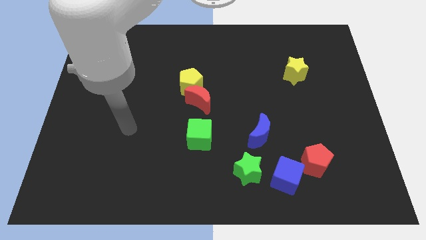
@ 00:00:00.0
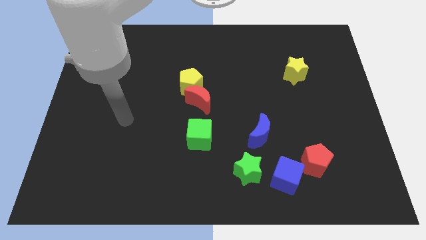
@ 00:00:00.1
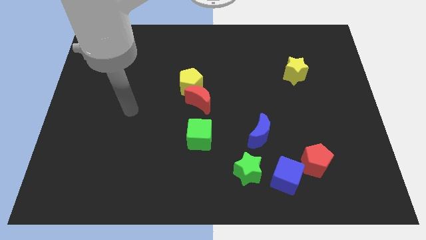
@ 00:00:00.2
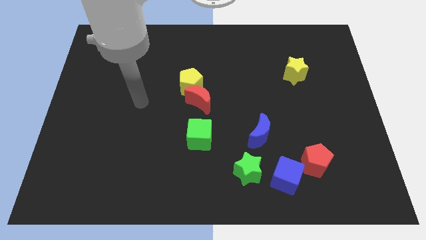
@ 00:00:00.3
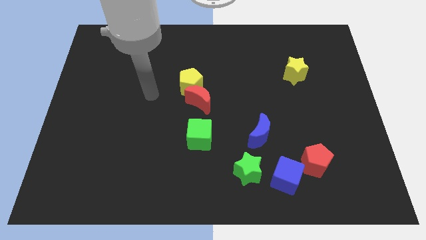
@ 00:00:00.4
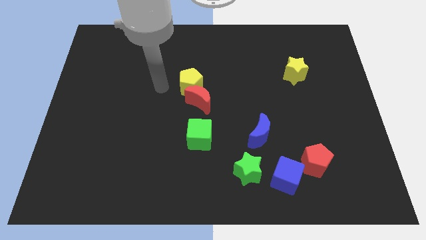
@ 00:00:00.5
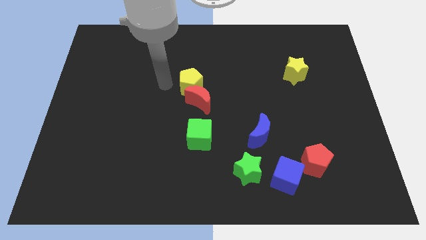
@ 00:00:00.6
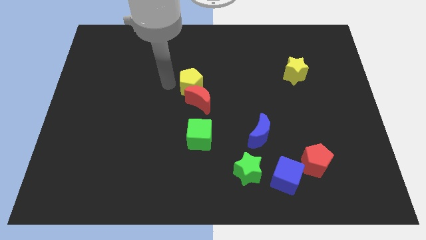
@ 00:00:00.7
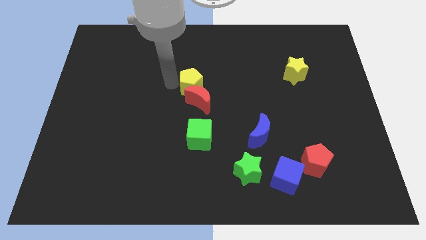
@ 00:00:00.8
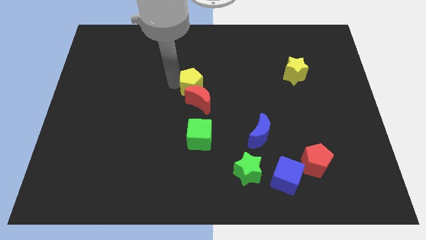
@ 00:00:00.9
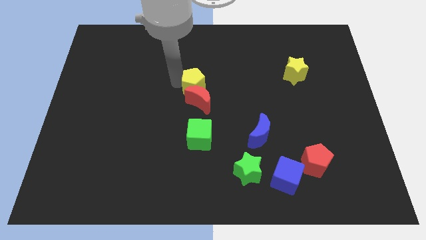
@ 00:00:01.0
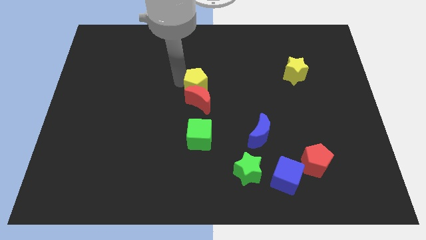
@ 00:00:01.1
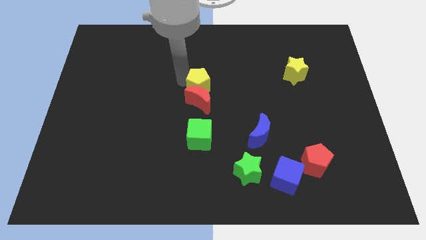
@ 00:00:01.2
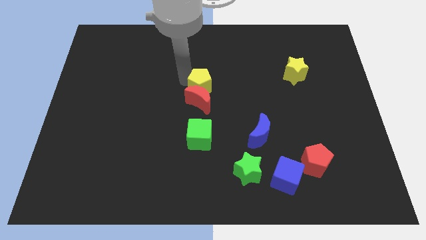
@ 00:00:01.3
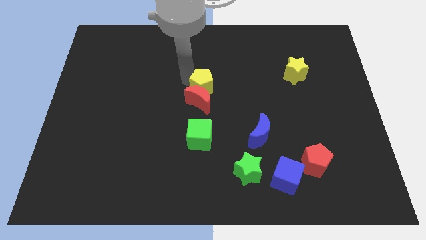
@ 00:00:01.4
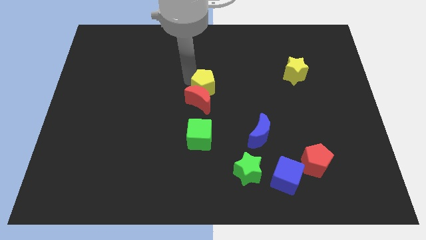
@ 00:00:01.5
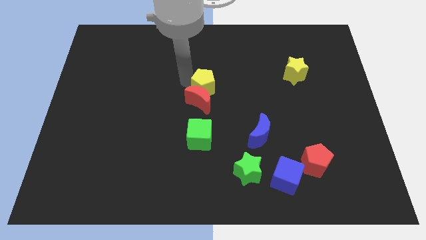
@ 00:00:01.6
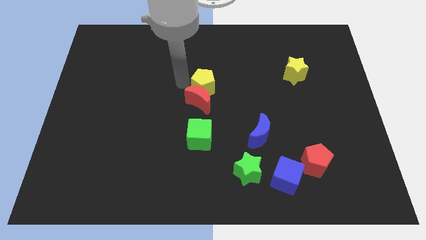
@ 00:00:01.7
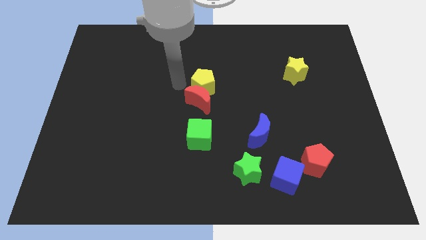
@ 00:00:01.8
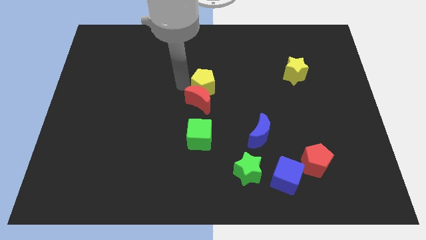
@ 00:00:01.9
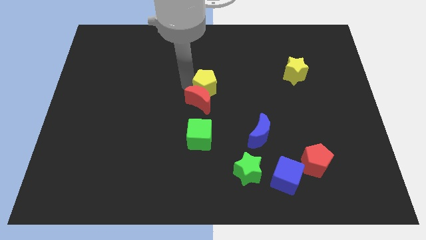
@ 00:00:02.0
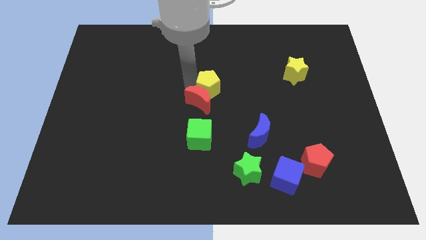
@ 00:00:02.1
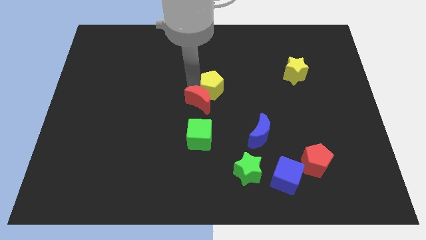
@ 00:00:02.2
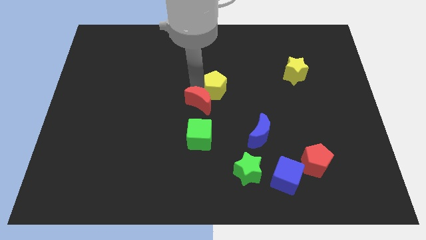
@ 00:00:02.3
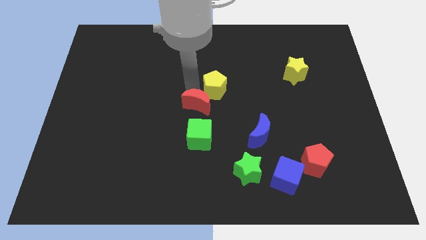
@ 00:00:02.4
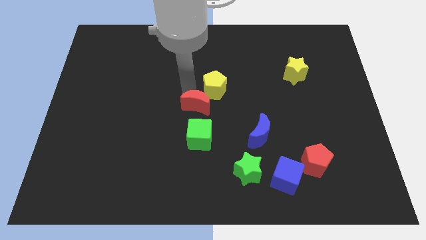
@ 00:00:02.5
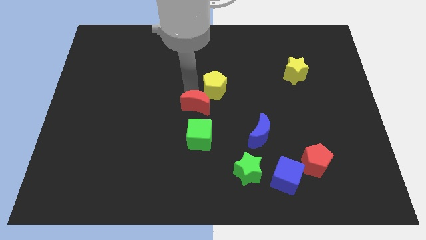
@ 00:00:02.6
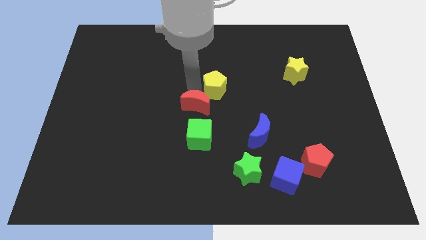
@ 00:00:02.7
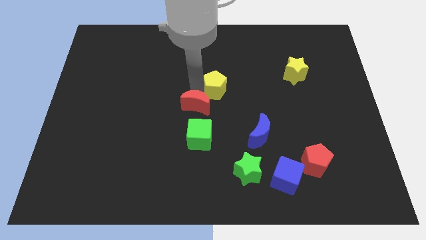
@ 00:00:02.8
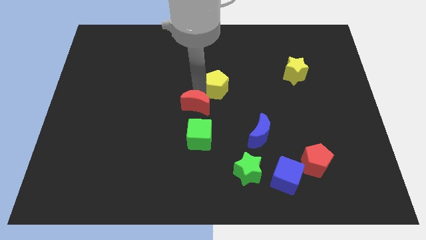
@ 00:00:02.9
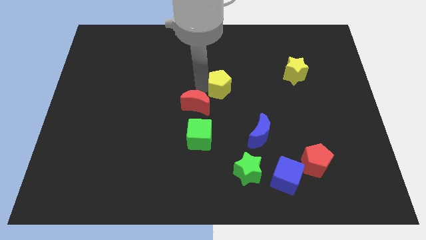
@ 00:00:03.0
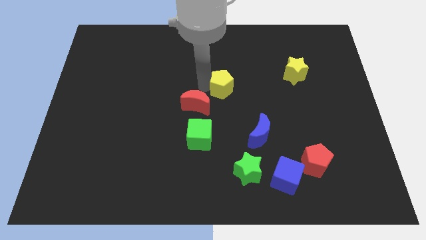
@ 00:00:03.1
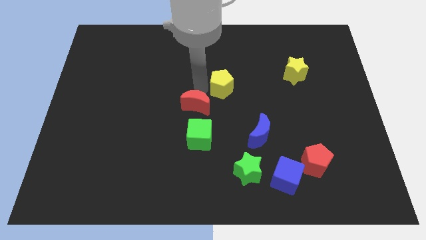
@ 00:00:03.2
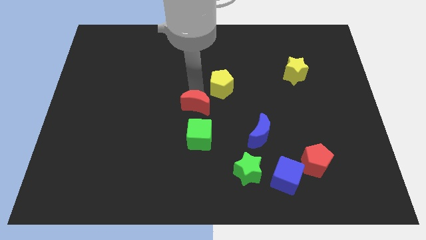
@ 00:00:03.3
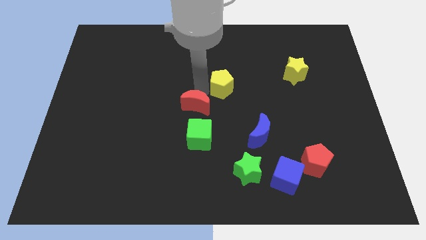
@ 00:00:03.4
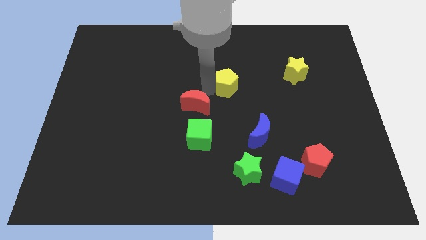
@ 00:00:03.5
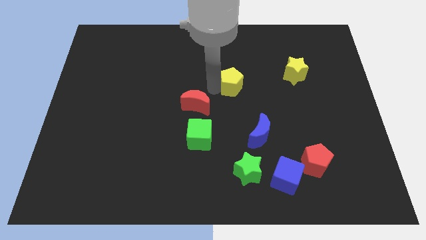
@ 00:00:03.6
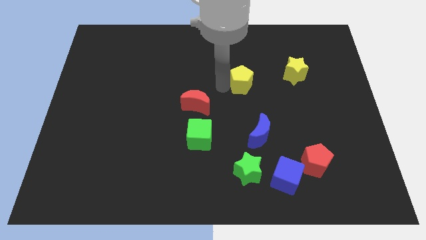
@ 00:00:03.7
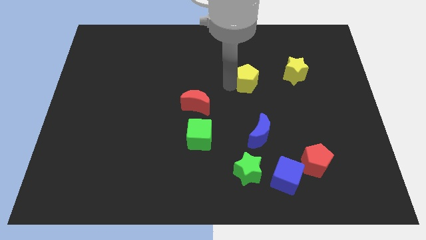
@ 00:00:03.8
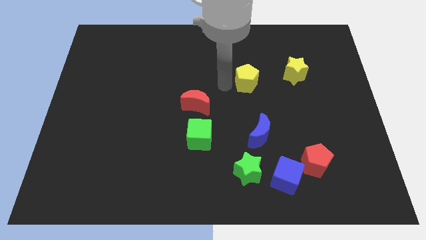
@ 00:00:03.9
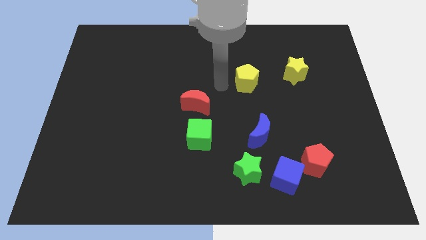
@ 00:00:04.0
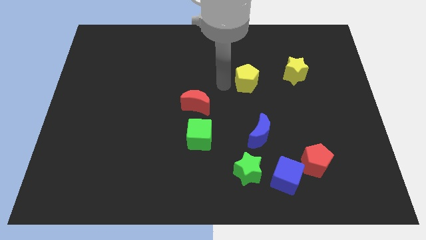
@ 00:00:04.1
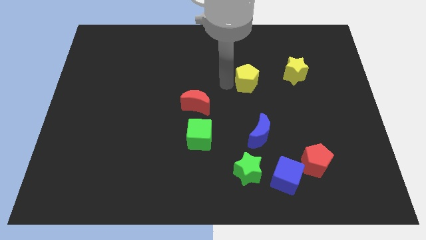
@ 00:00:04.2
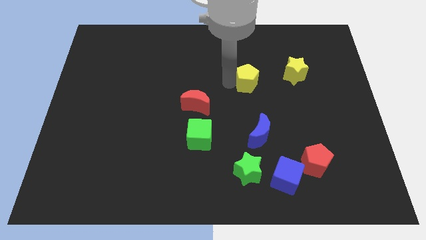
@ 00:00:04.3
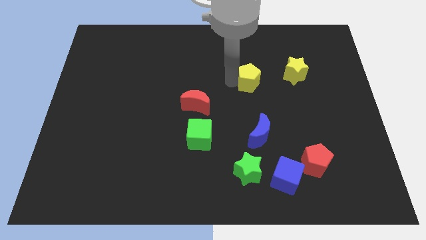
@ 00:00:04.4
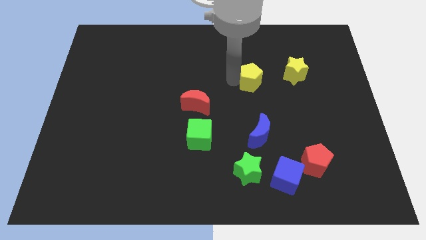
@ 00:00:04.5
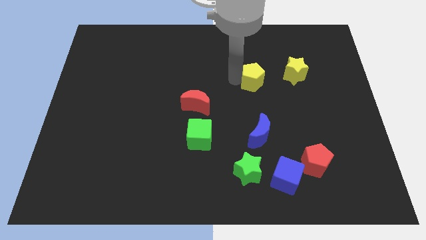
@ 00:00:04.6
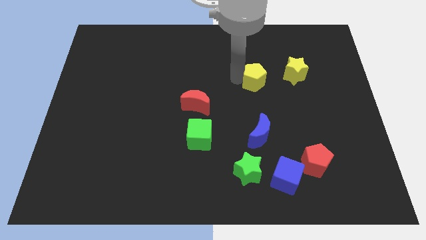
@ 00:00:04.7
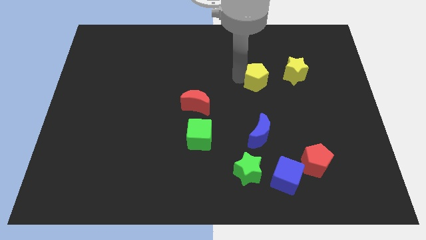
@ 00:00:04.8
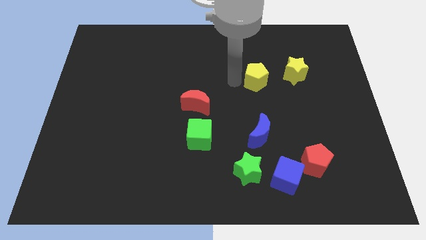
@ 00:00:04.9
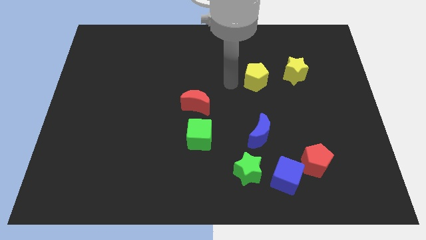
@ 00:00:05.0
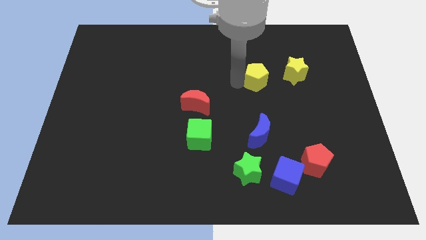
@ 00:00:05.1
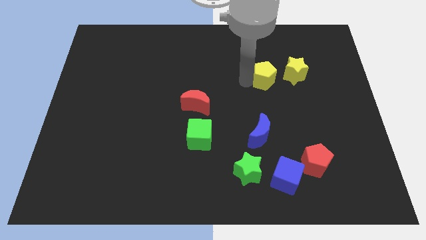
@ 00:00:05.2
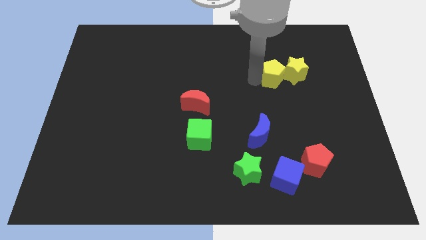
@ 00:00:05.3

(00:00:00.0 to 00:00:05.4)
slide the yellow pentagon towards the yellow star

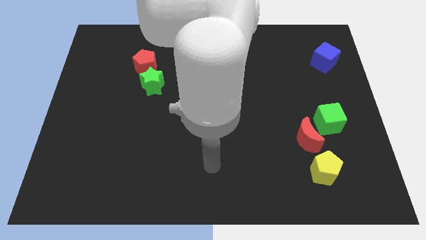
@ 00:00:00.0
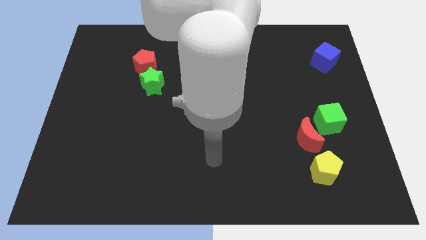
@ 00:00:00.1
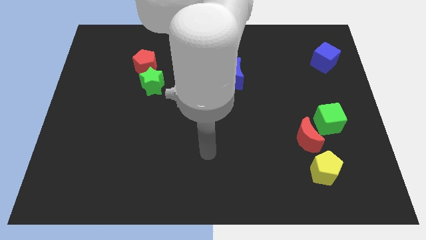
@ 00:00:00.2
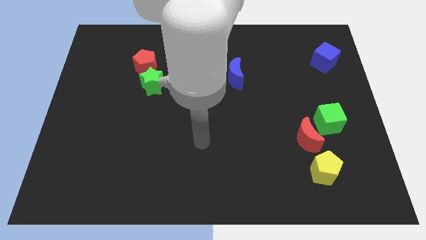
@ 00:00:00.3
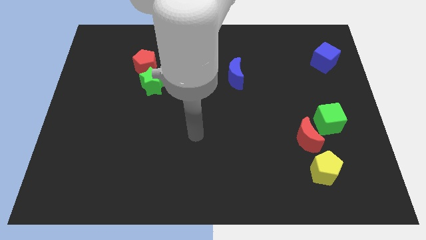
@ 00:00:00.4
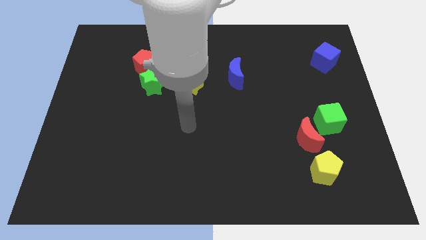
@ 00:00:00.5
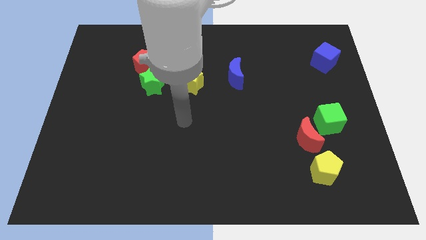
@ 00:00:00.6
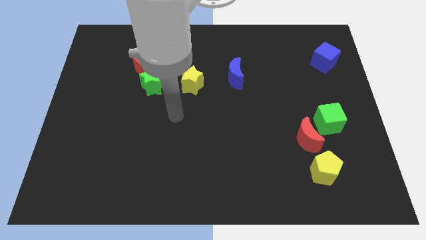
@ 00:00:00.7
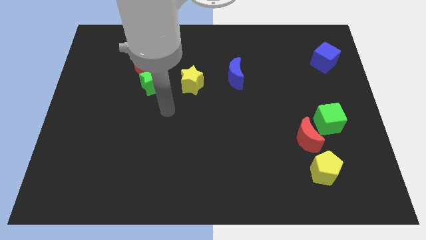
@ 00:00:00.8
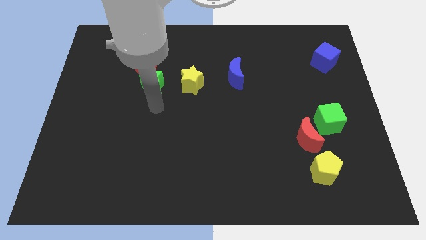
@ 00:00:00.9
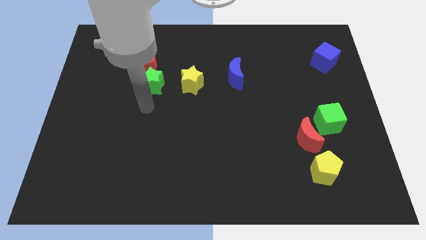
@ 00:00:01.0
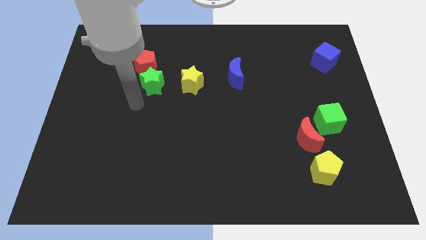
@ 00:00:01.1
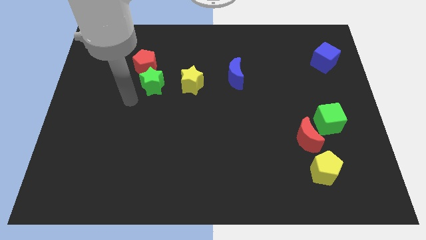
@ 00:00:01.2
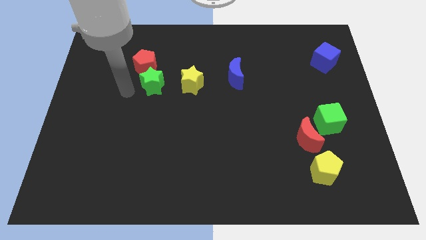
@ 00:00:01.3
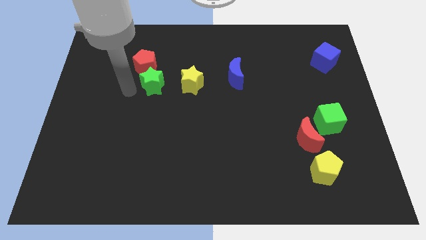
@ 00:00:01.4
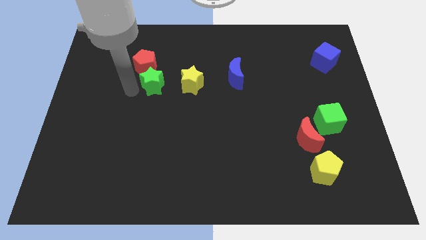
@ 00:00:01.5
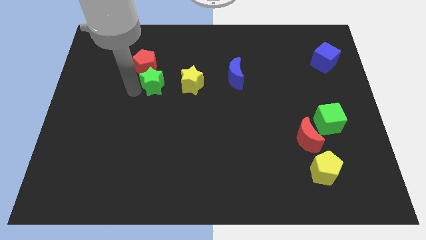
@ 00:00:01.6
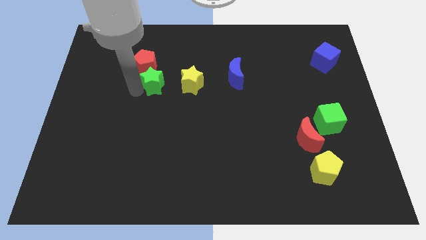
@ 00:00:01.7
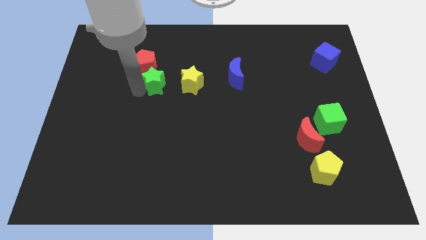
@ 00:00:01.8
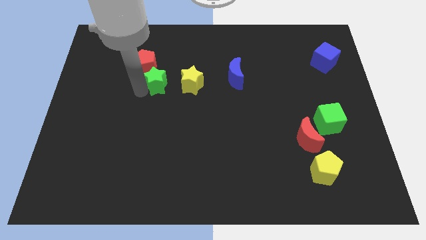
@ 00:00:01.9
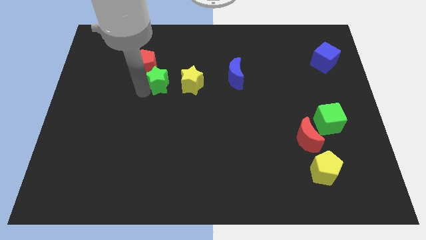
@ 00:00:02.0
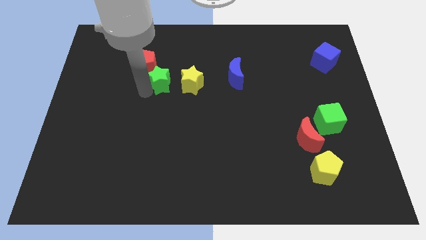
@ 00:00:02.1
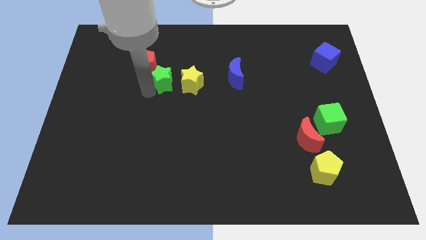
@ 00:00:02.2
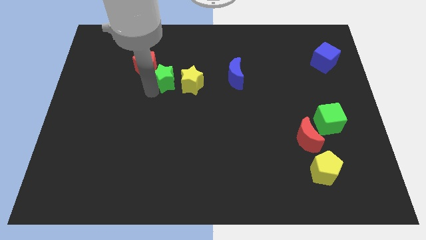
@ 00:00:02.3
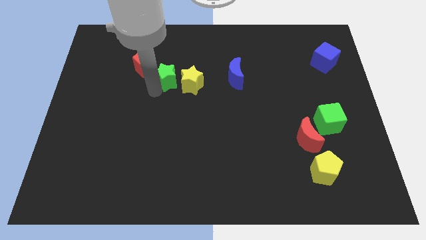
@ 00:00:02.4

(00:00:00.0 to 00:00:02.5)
push the green star close to the yellow star
